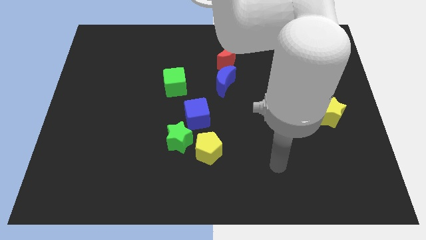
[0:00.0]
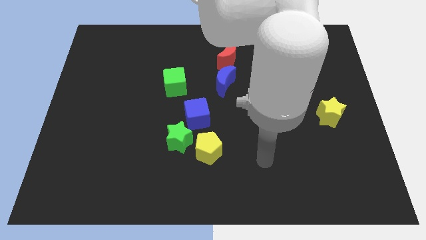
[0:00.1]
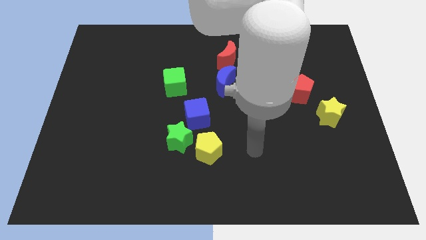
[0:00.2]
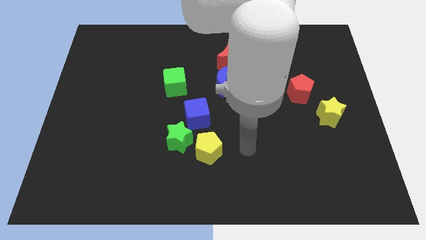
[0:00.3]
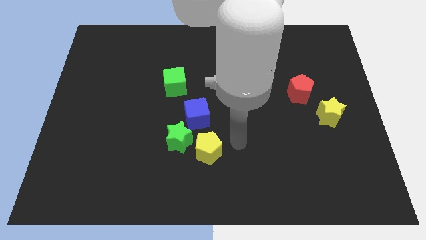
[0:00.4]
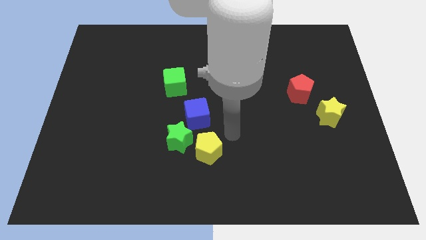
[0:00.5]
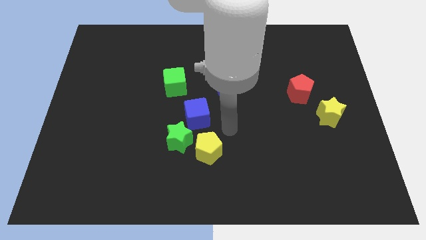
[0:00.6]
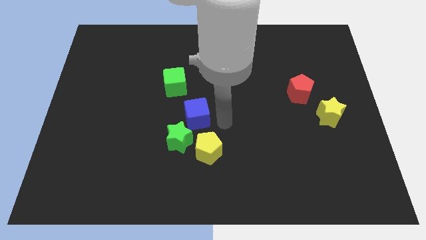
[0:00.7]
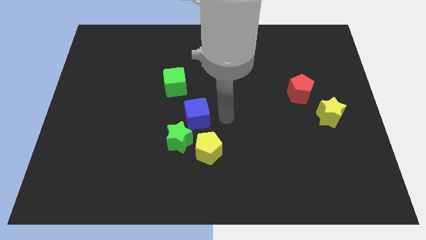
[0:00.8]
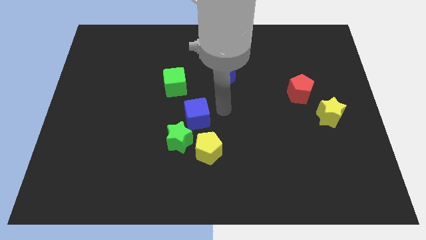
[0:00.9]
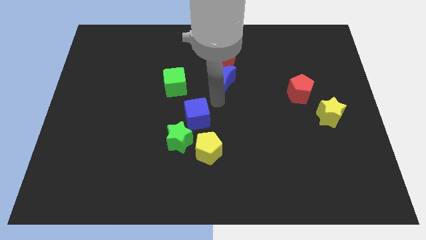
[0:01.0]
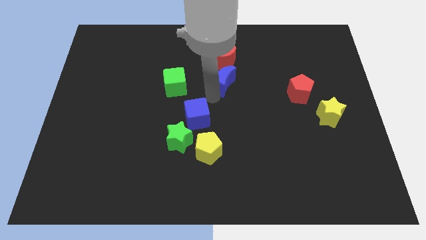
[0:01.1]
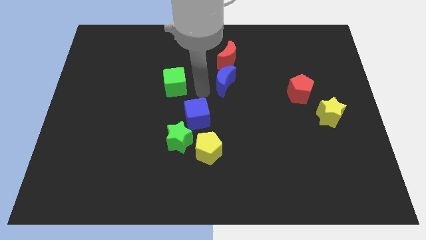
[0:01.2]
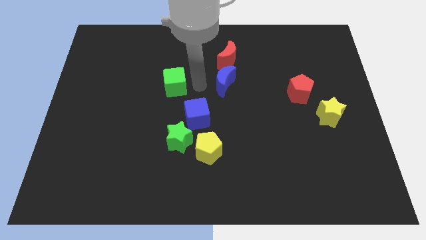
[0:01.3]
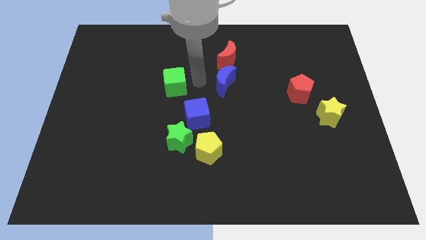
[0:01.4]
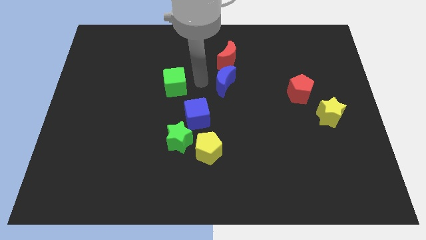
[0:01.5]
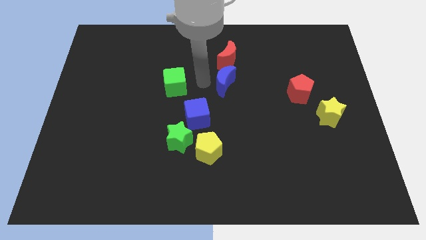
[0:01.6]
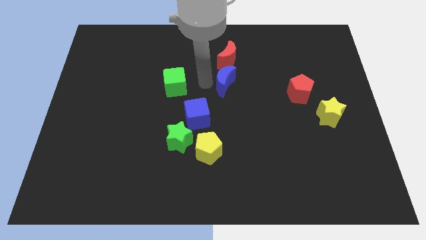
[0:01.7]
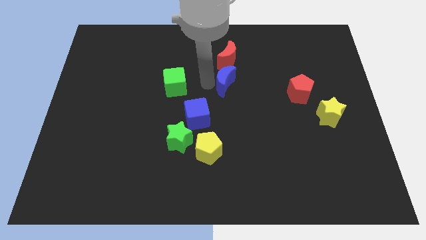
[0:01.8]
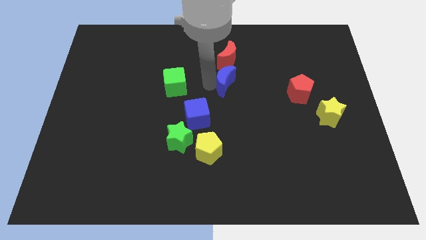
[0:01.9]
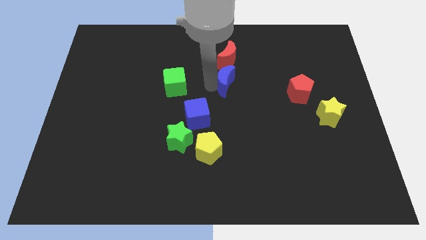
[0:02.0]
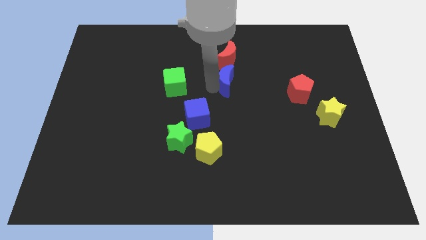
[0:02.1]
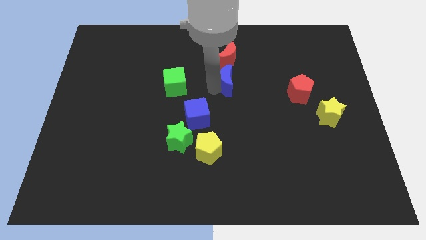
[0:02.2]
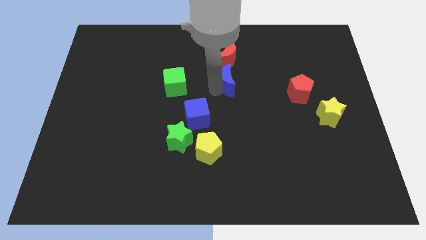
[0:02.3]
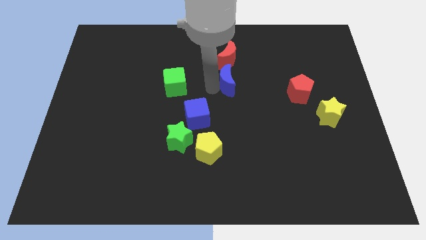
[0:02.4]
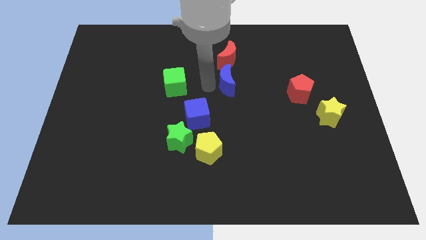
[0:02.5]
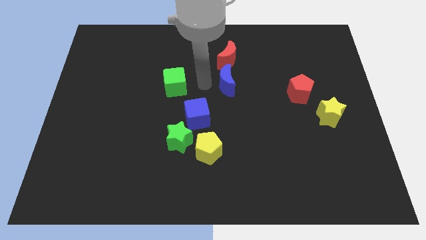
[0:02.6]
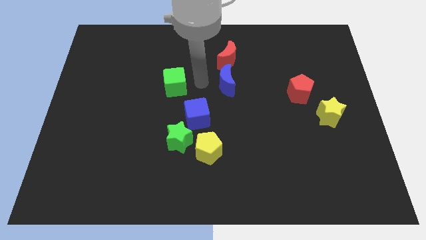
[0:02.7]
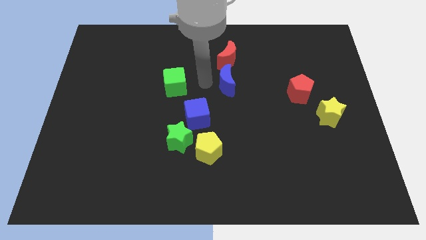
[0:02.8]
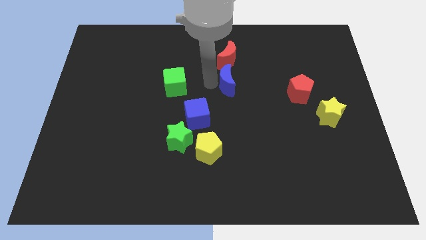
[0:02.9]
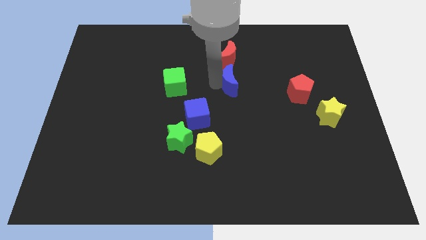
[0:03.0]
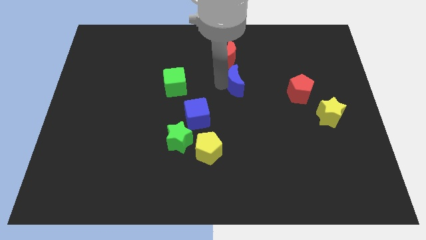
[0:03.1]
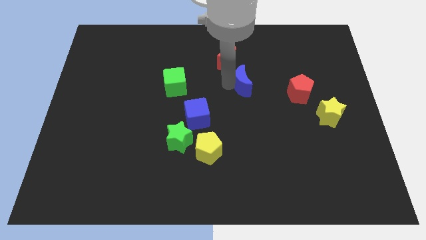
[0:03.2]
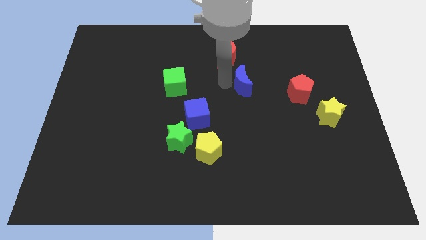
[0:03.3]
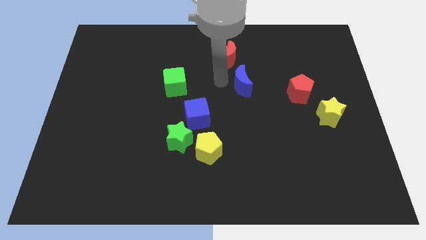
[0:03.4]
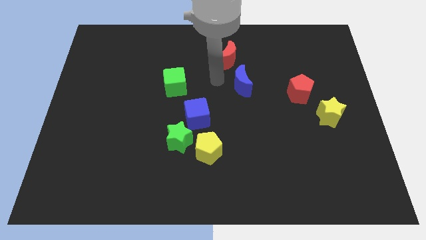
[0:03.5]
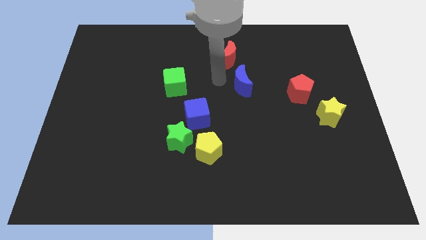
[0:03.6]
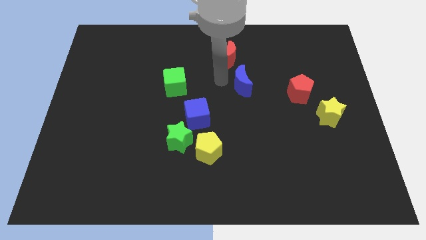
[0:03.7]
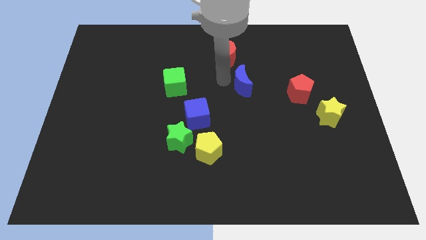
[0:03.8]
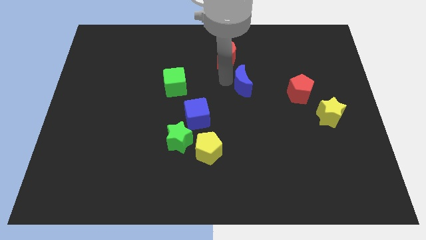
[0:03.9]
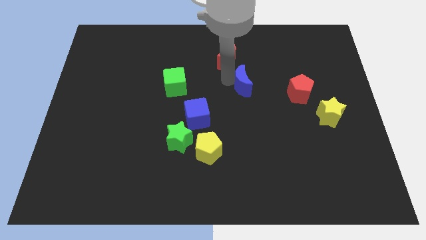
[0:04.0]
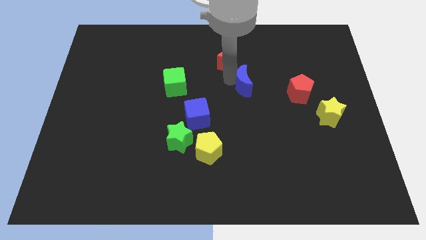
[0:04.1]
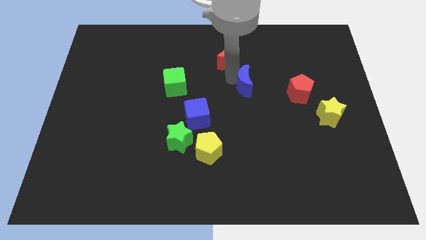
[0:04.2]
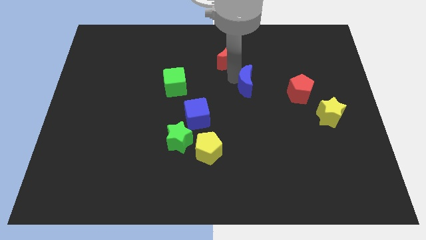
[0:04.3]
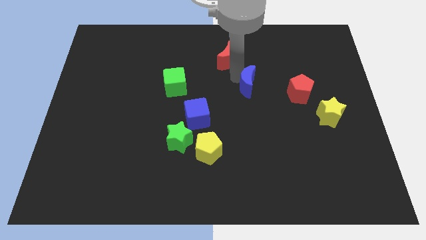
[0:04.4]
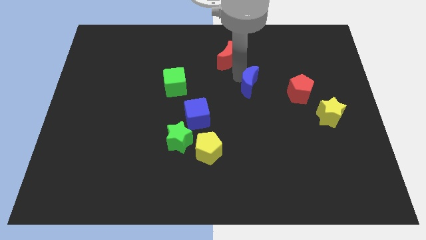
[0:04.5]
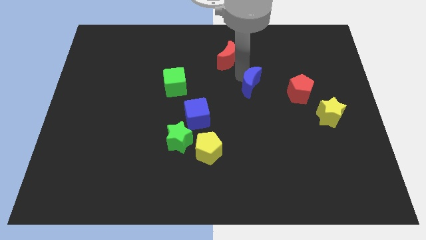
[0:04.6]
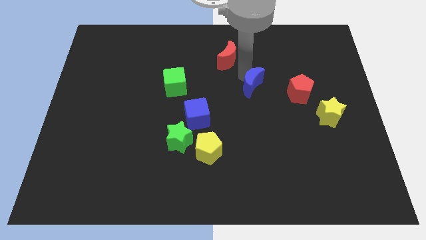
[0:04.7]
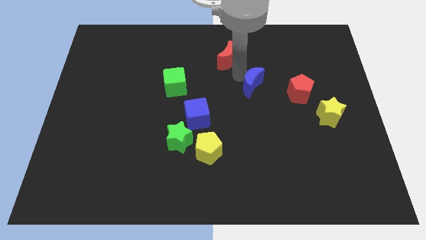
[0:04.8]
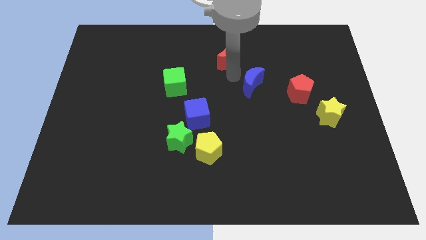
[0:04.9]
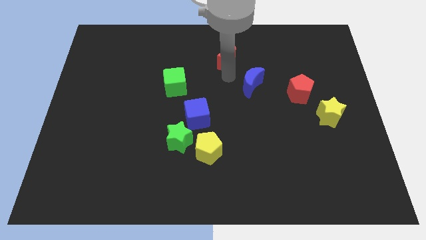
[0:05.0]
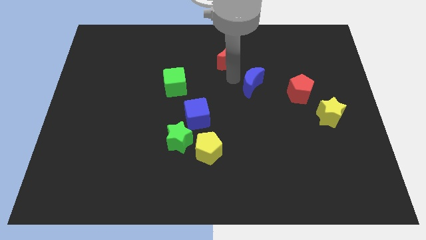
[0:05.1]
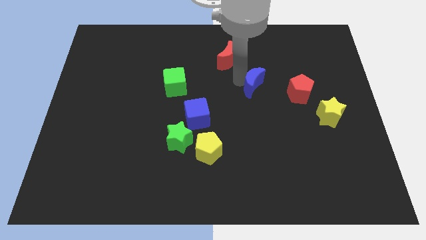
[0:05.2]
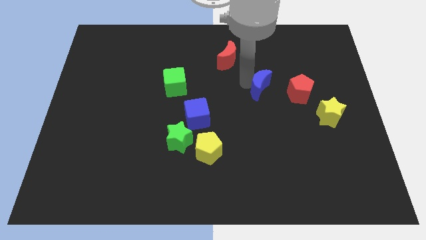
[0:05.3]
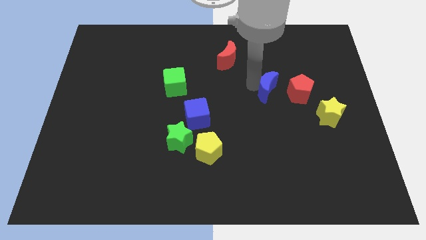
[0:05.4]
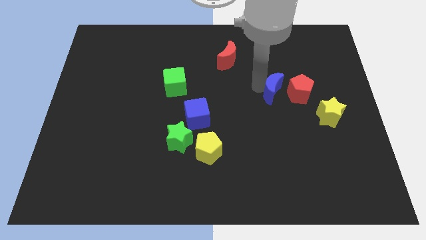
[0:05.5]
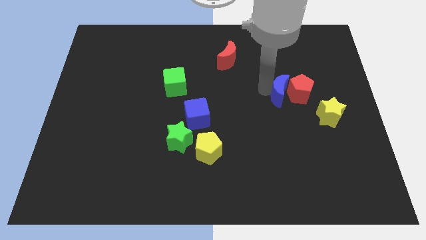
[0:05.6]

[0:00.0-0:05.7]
push the blue moon towards the red pentagon

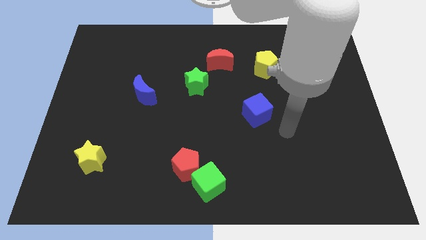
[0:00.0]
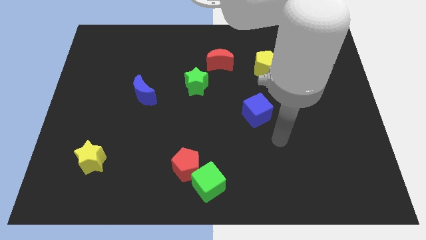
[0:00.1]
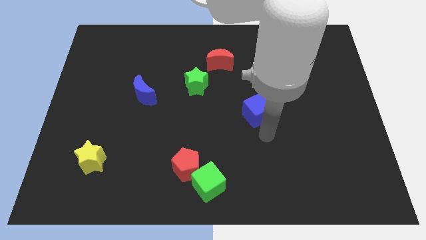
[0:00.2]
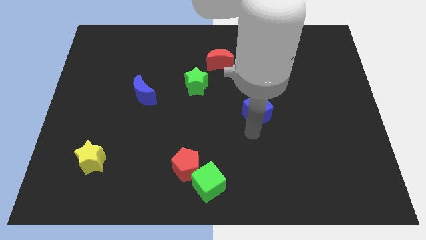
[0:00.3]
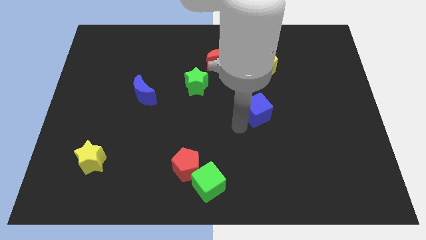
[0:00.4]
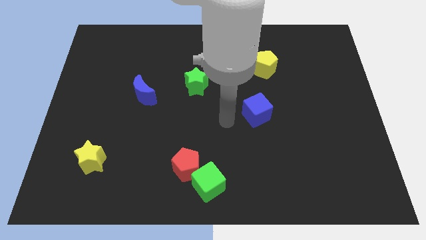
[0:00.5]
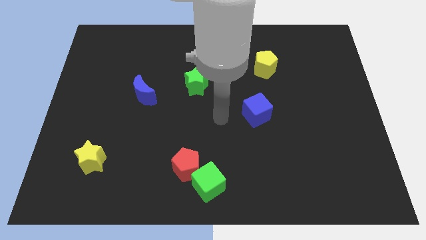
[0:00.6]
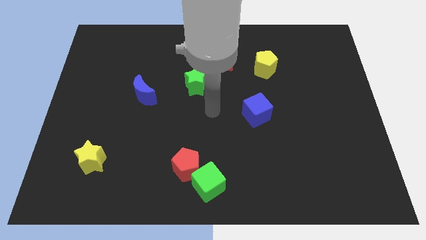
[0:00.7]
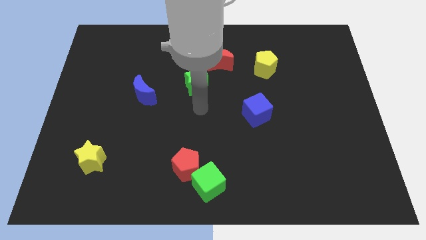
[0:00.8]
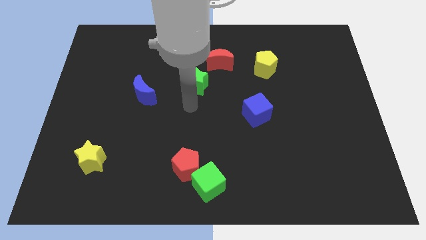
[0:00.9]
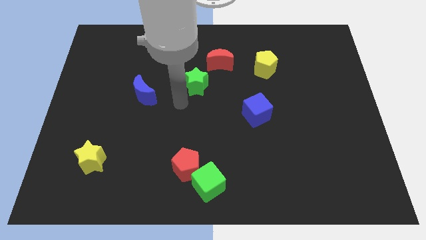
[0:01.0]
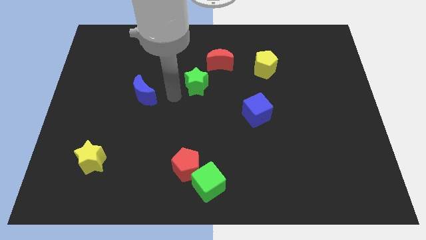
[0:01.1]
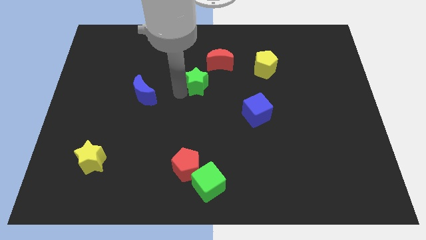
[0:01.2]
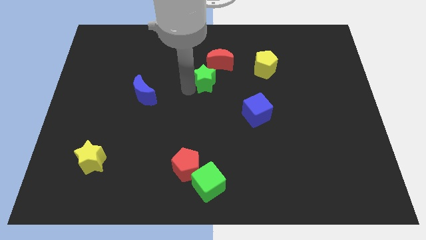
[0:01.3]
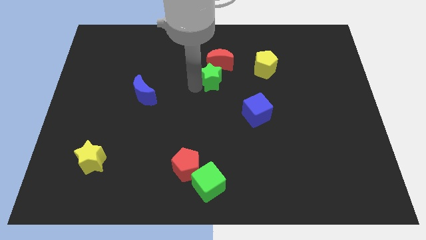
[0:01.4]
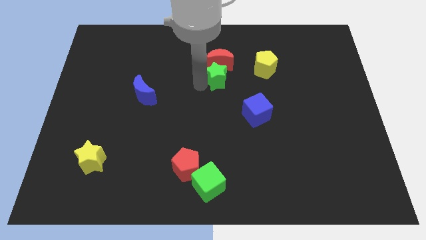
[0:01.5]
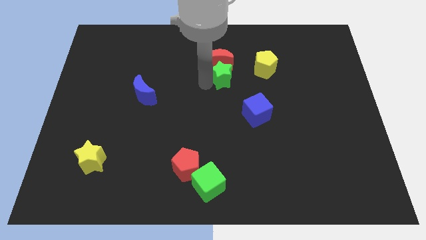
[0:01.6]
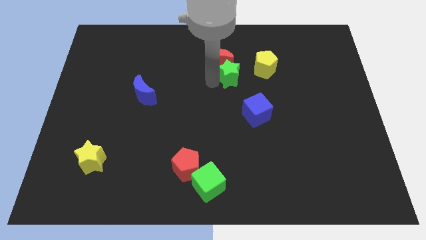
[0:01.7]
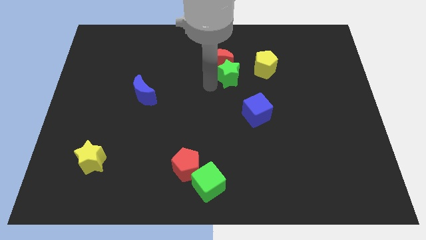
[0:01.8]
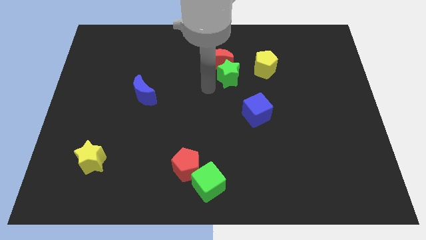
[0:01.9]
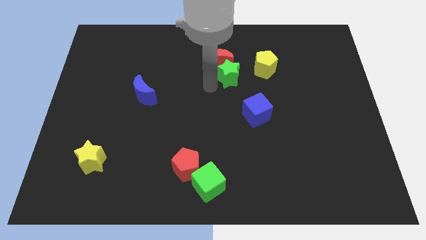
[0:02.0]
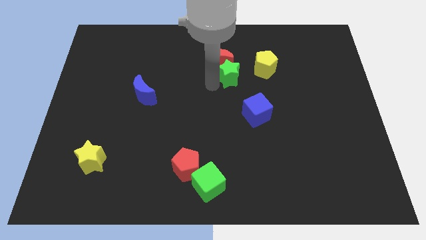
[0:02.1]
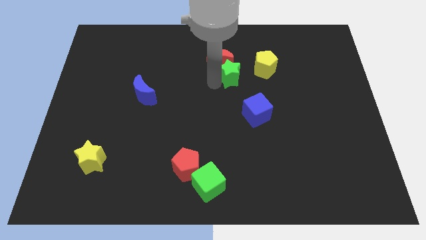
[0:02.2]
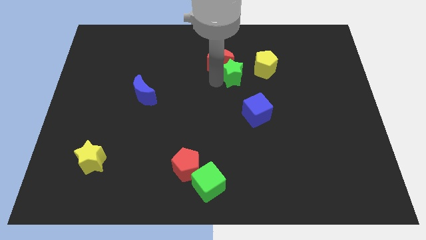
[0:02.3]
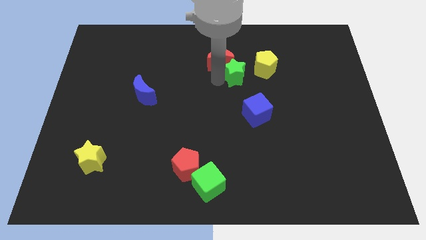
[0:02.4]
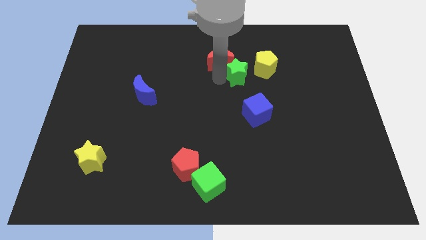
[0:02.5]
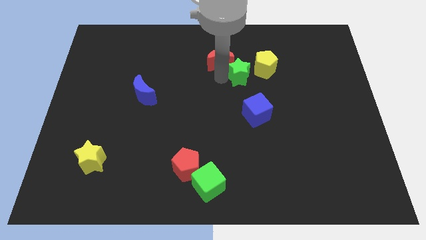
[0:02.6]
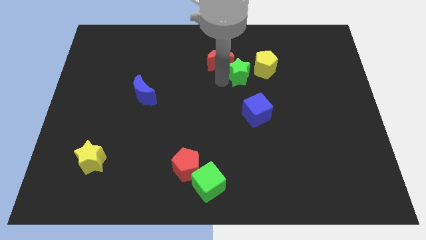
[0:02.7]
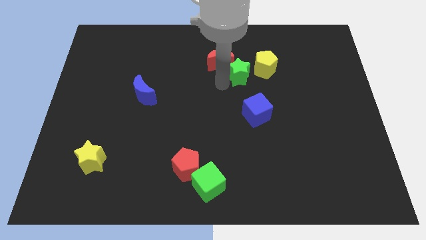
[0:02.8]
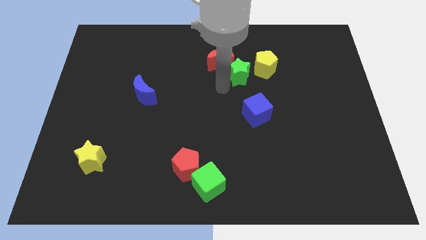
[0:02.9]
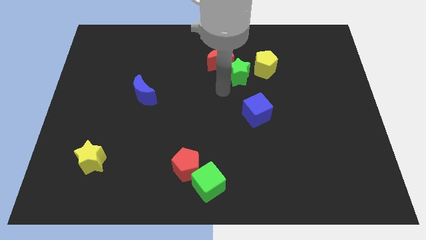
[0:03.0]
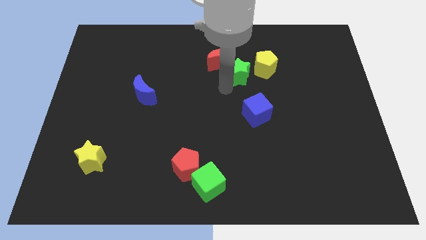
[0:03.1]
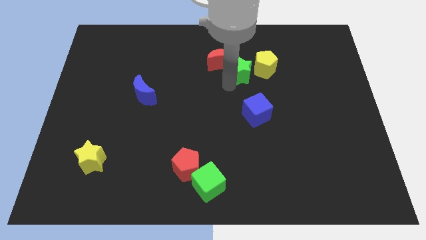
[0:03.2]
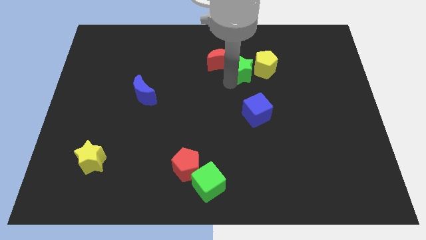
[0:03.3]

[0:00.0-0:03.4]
move the green star close to the yellow pentagon
